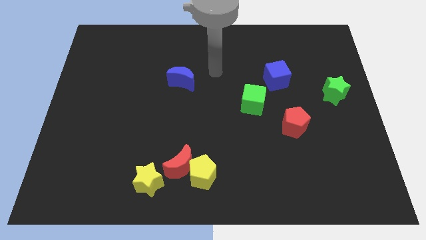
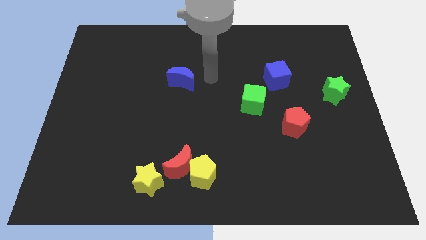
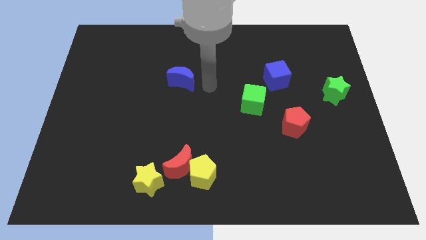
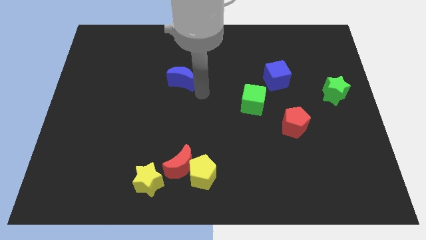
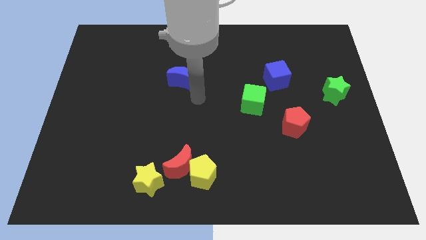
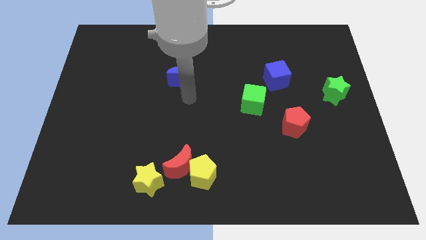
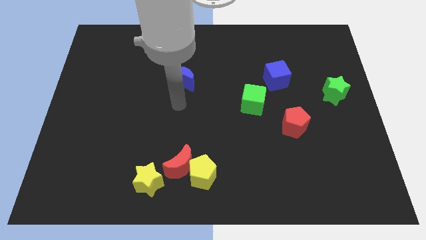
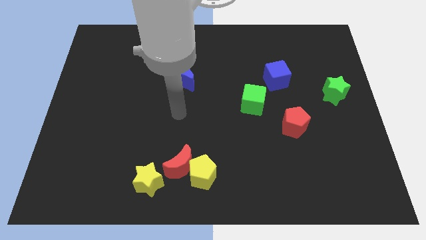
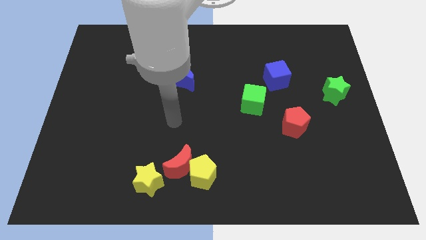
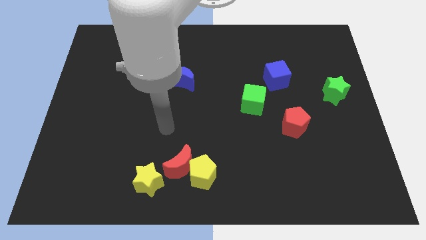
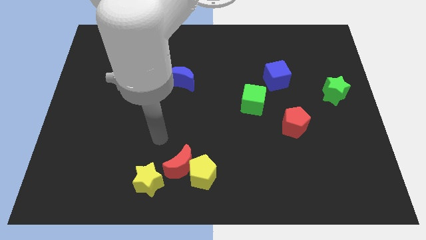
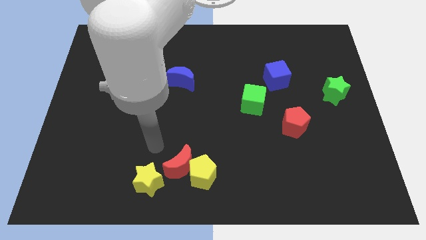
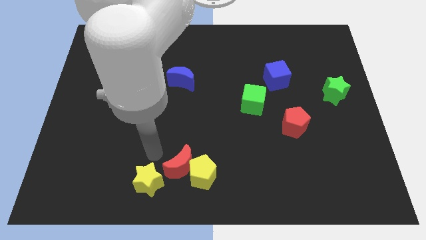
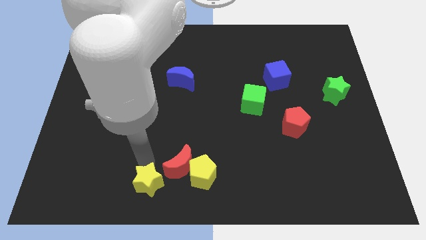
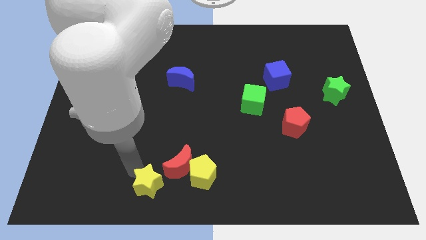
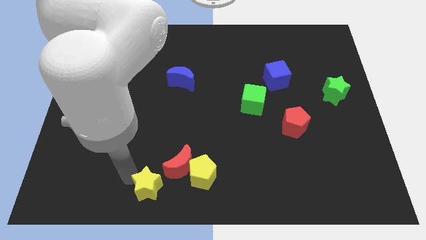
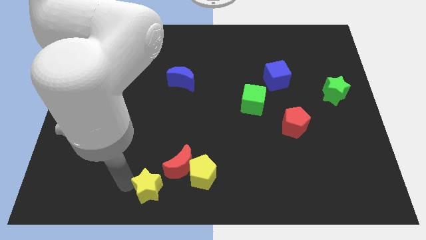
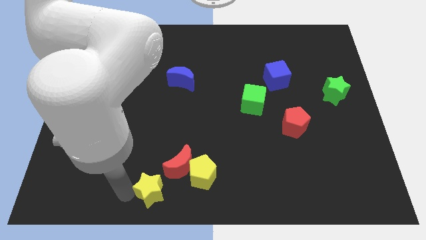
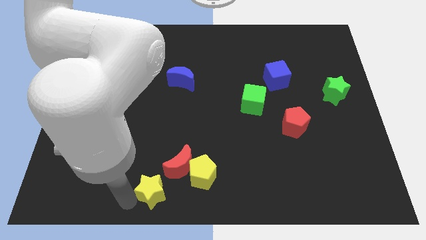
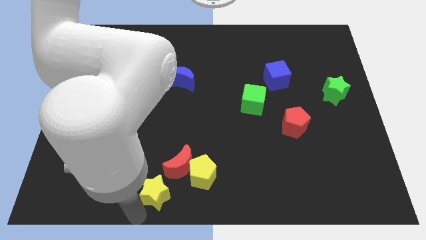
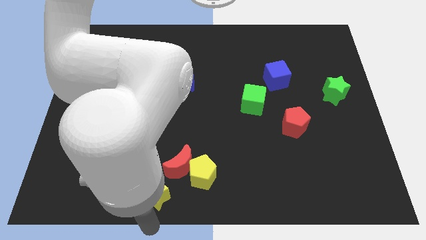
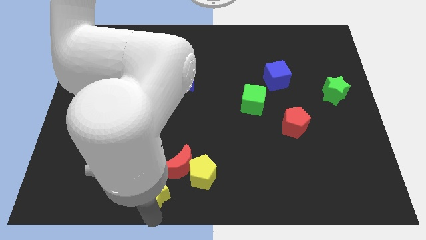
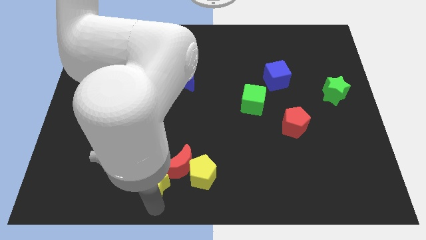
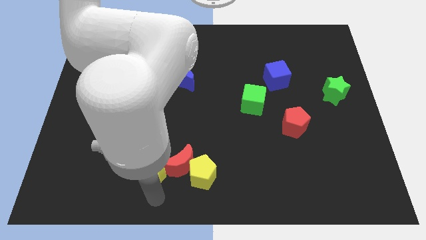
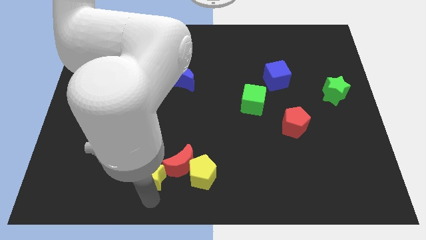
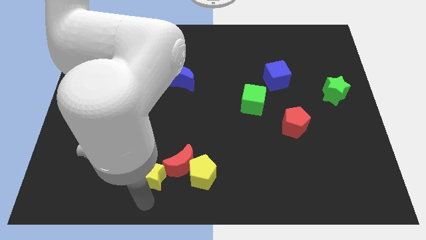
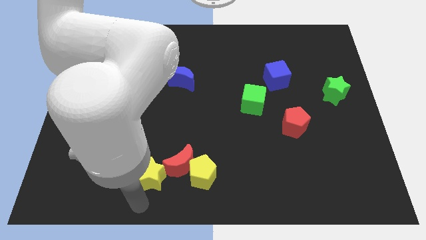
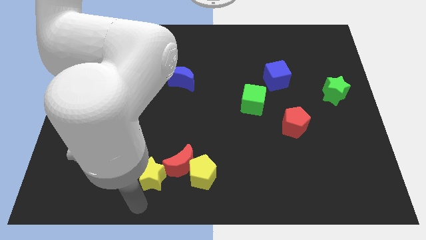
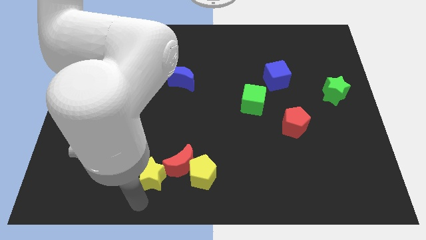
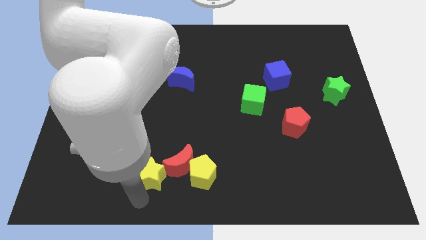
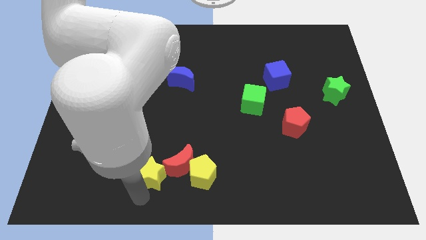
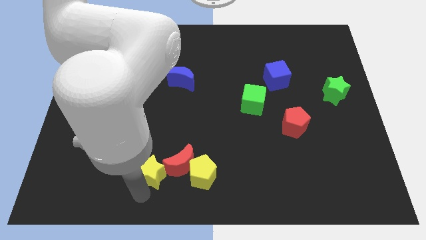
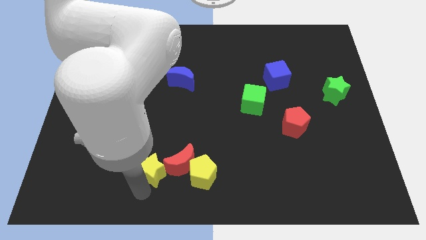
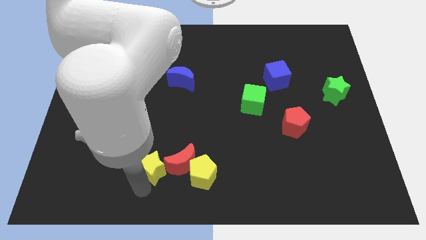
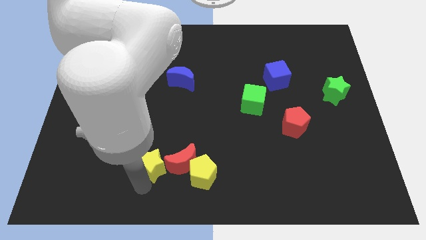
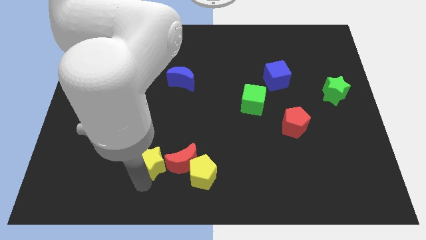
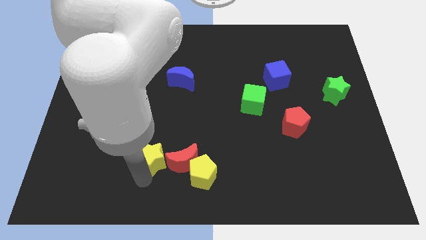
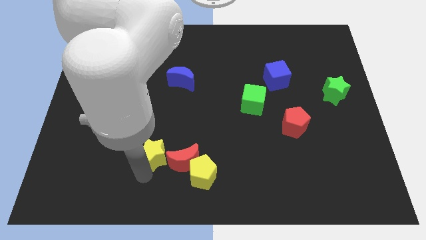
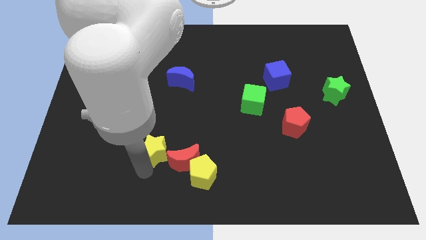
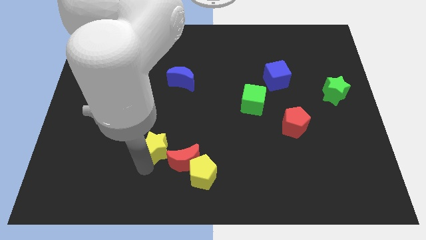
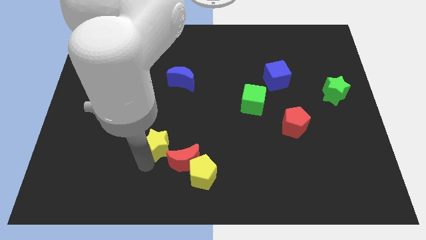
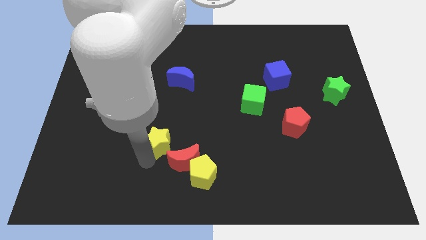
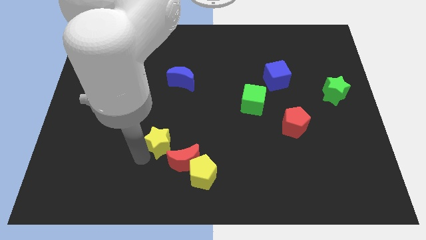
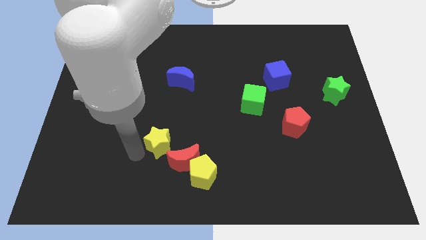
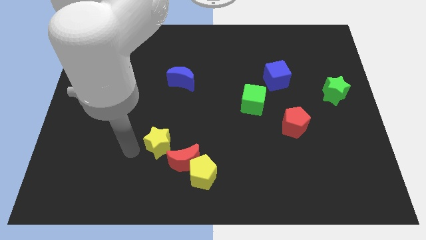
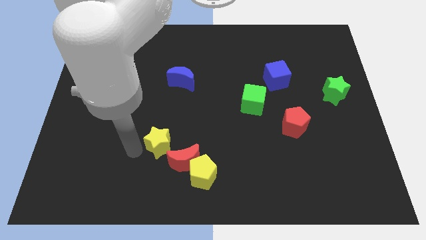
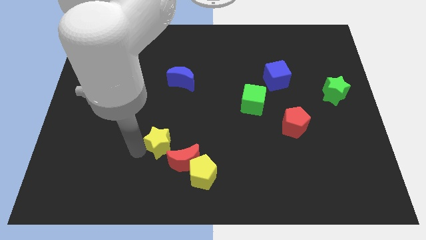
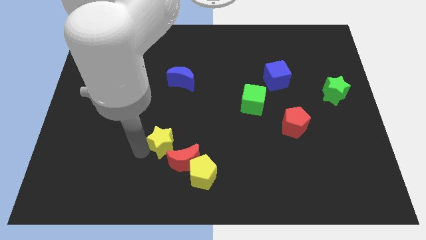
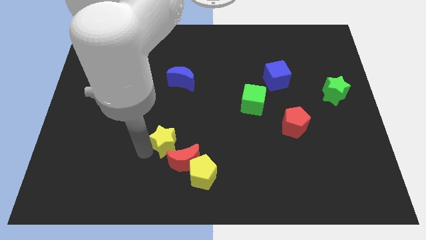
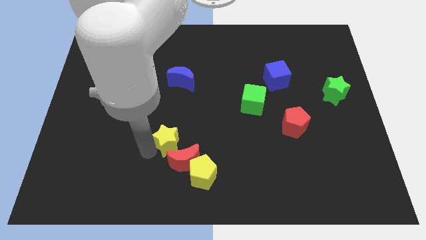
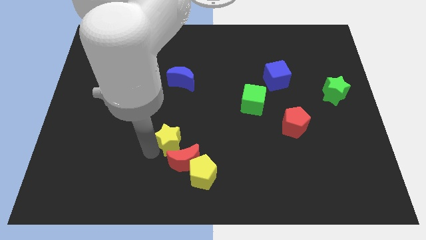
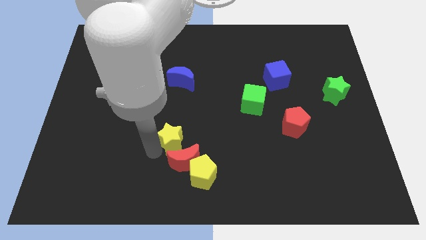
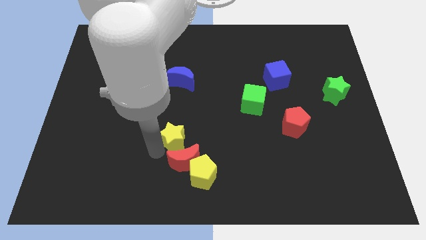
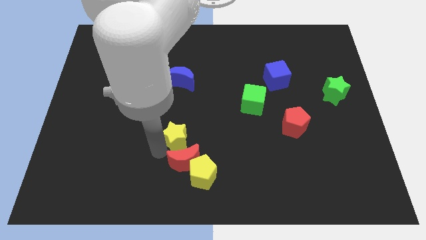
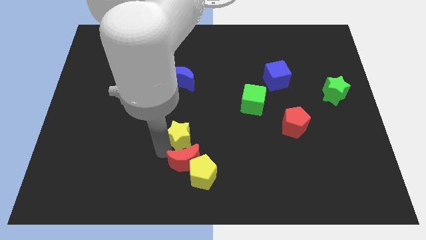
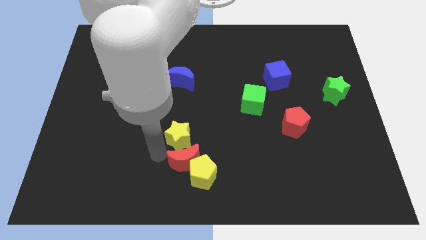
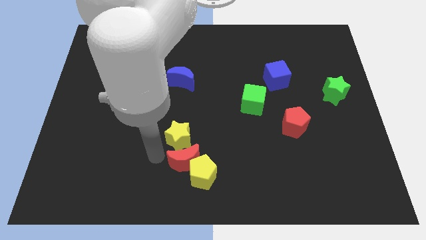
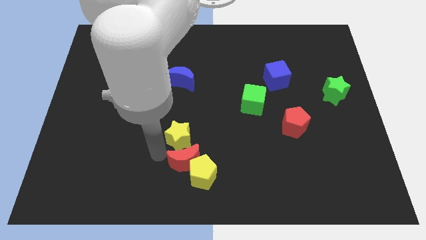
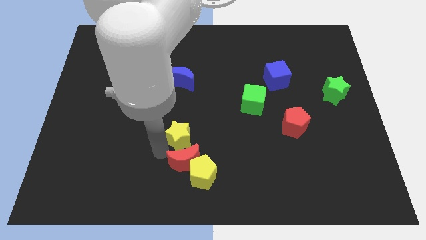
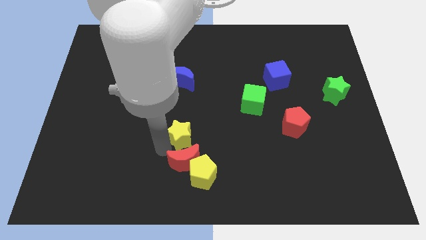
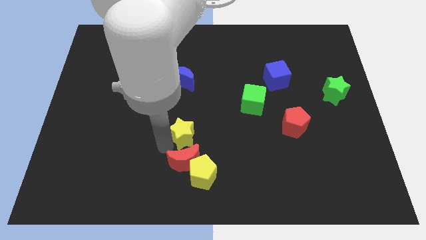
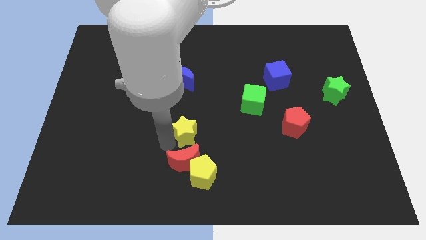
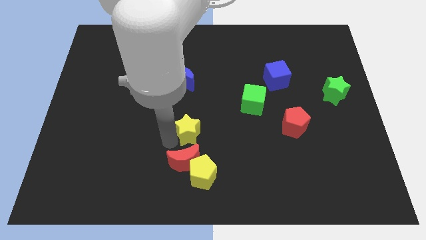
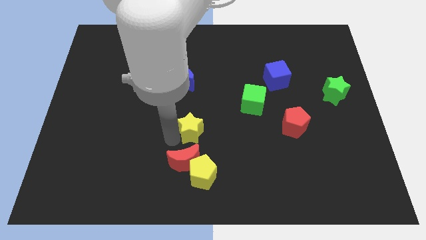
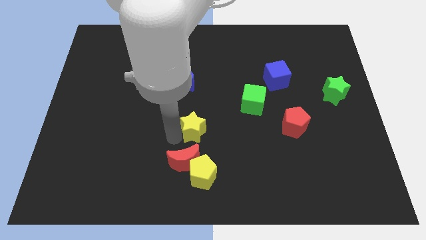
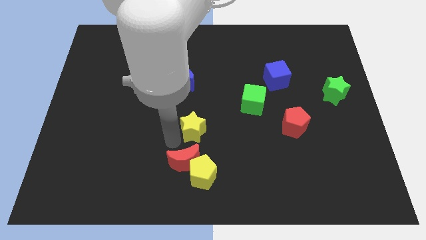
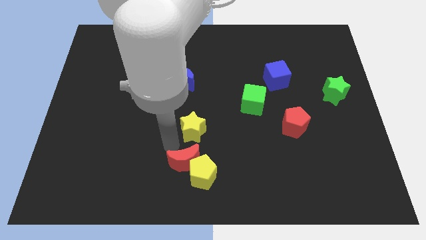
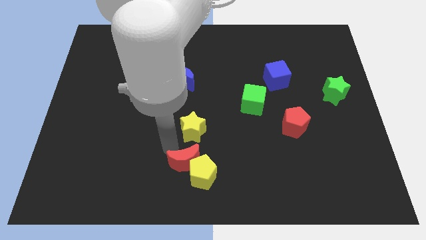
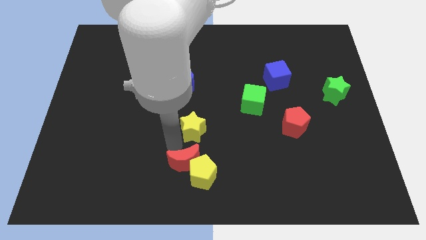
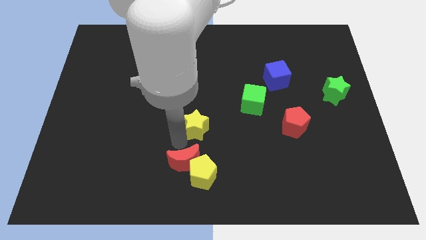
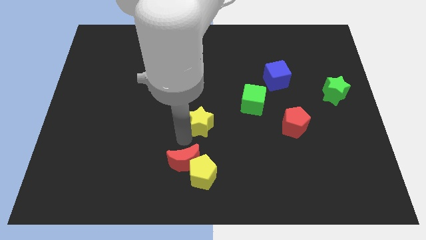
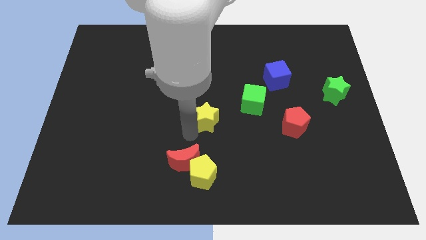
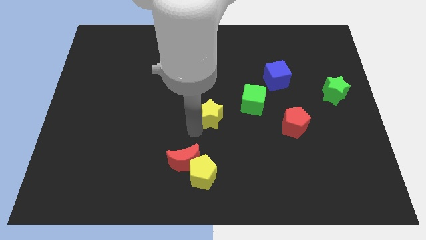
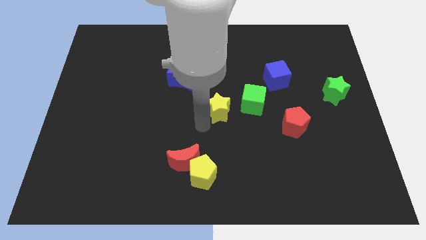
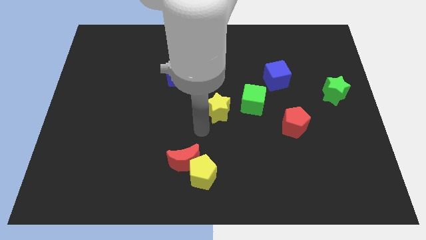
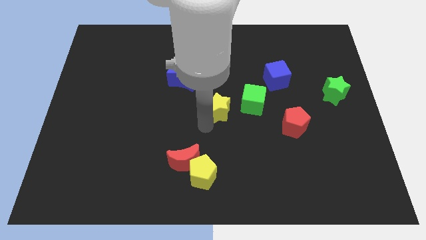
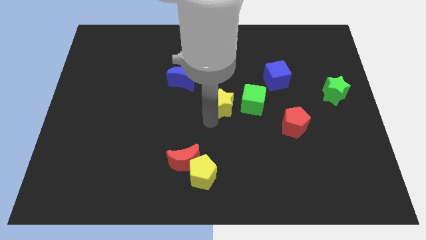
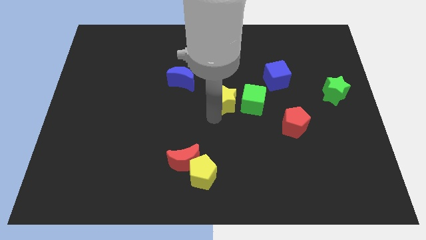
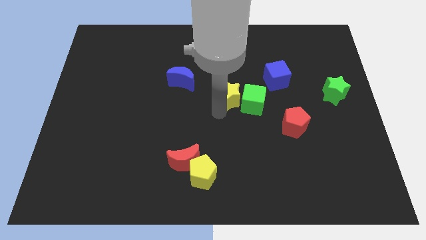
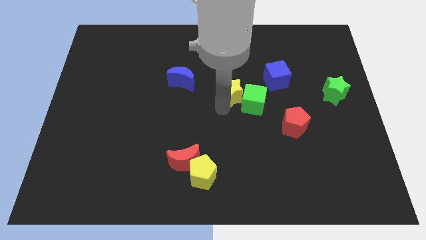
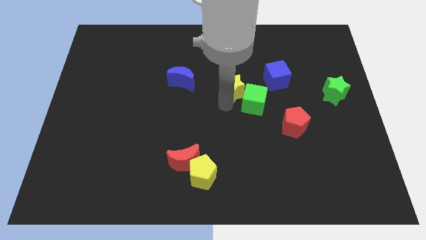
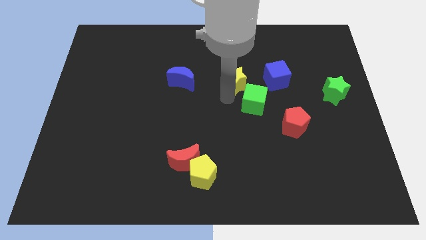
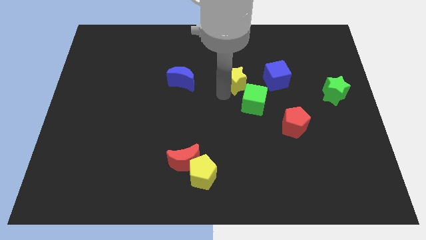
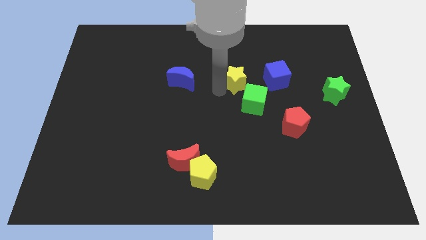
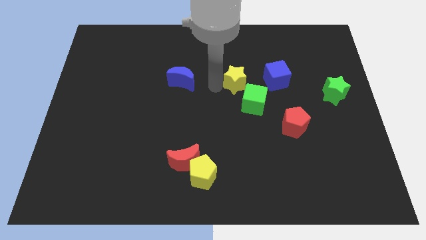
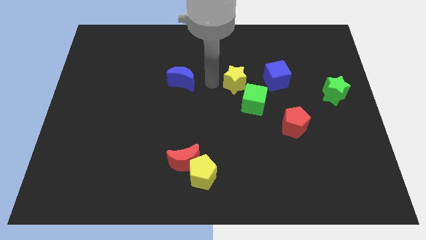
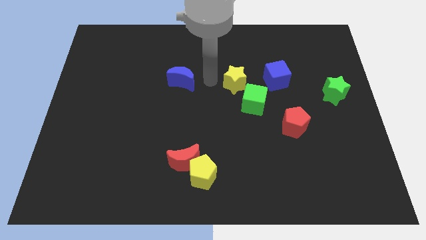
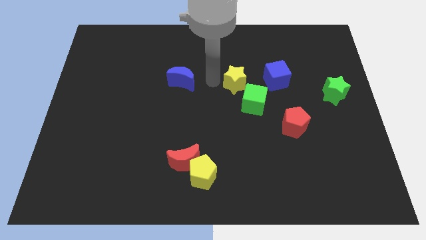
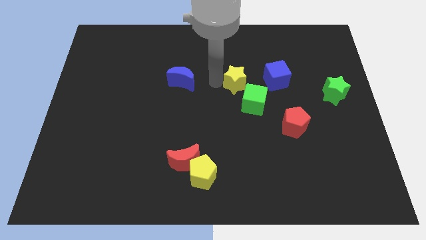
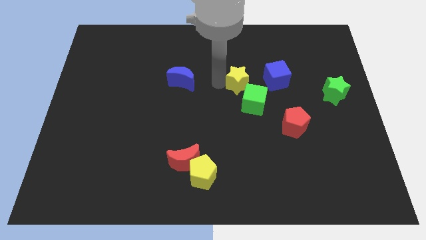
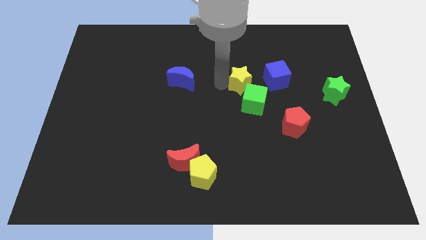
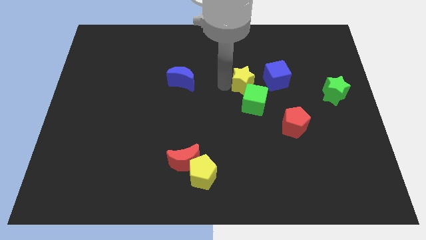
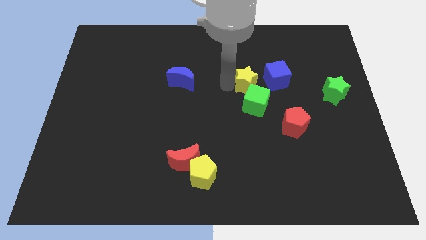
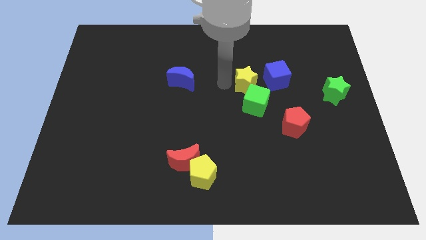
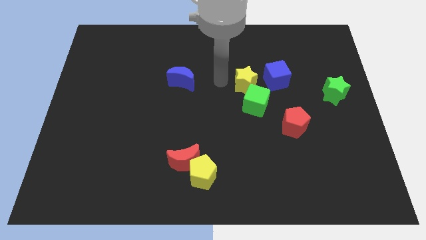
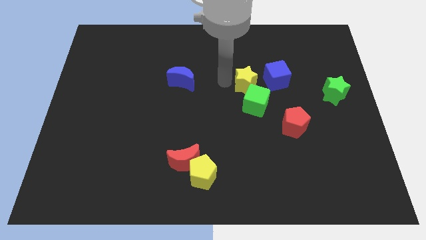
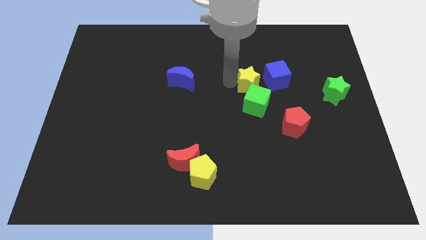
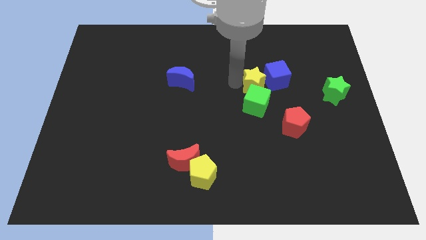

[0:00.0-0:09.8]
push the yellow star next to the blue cube
